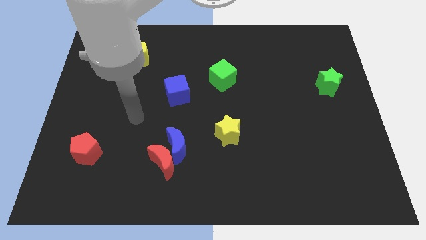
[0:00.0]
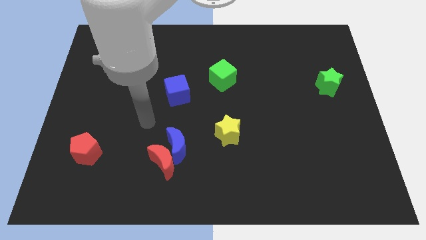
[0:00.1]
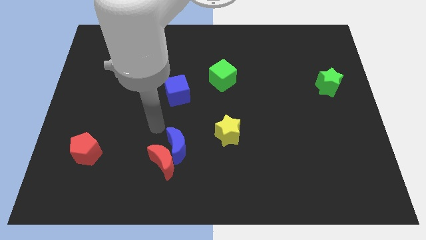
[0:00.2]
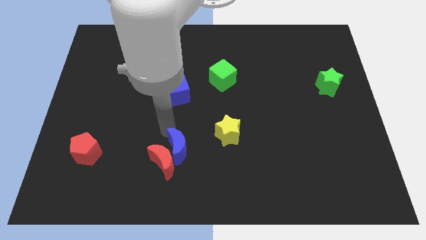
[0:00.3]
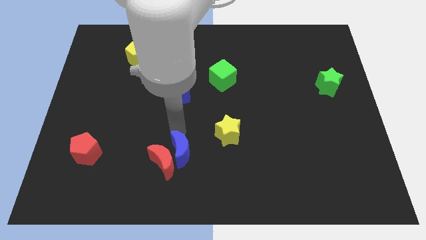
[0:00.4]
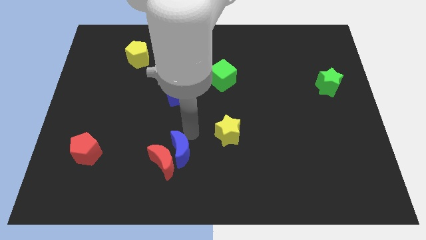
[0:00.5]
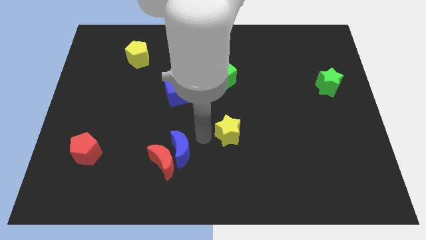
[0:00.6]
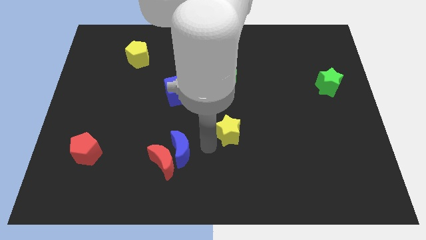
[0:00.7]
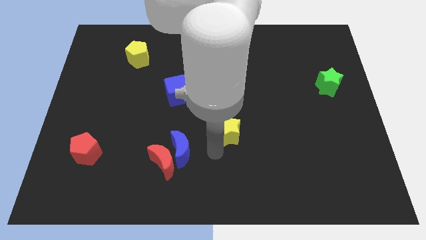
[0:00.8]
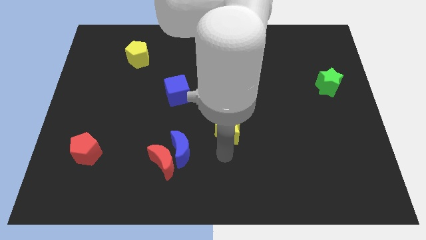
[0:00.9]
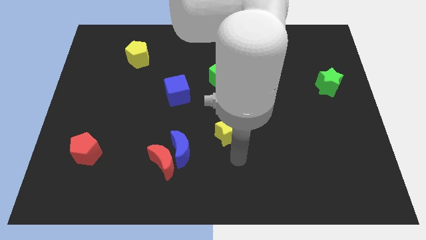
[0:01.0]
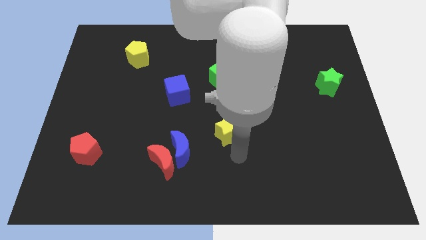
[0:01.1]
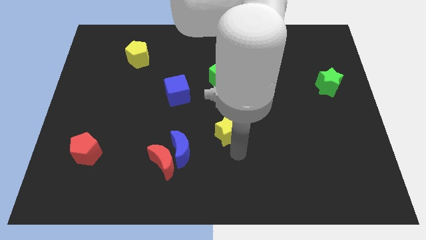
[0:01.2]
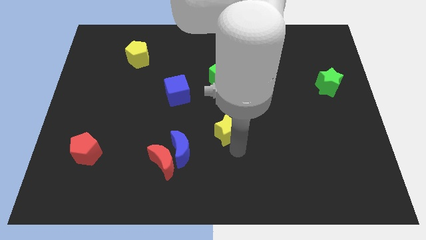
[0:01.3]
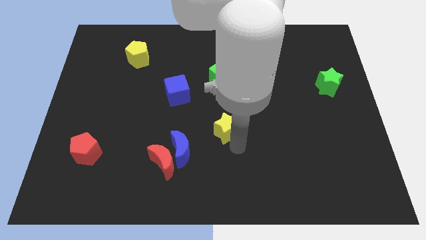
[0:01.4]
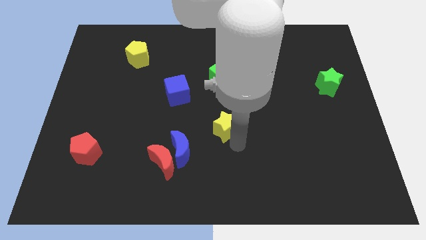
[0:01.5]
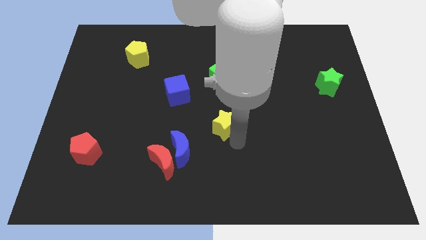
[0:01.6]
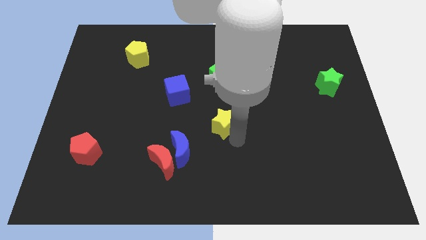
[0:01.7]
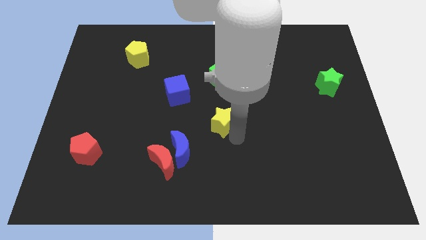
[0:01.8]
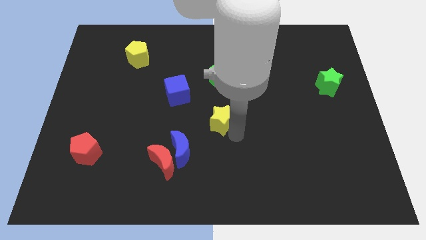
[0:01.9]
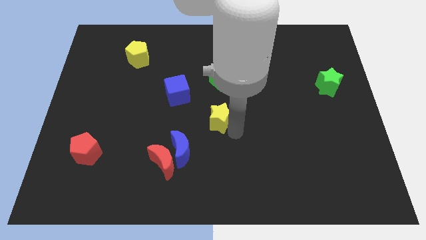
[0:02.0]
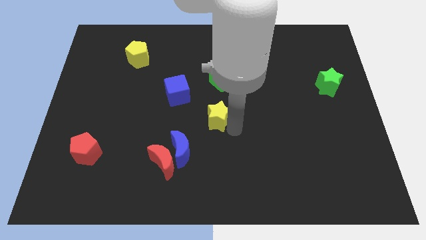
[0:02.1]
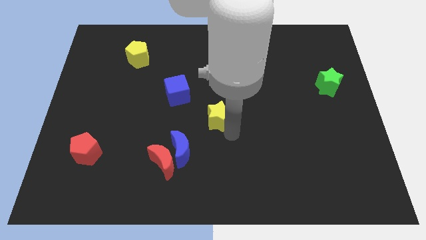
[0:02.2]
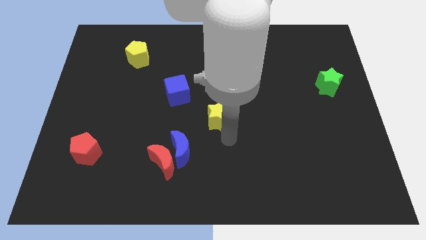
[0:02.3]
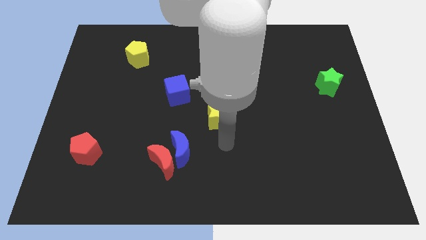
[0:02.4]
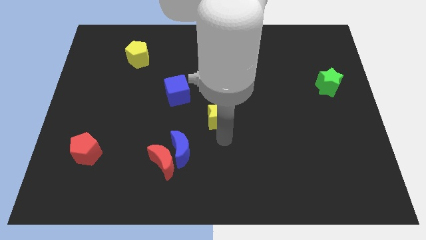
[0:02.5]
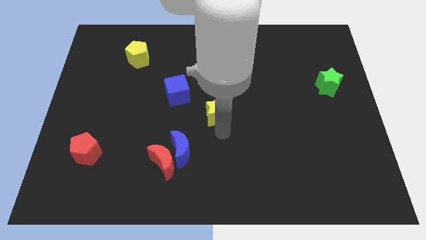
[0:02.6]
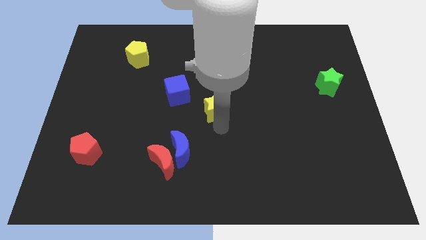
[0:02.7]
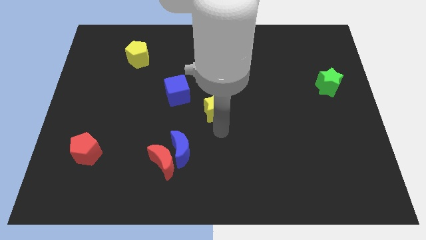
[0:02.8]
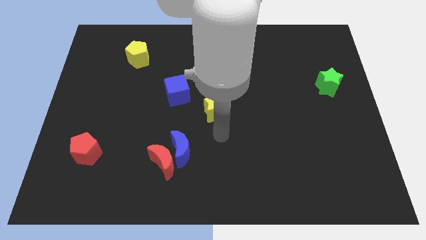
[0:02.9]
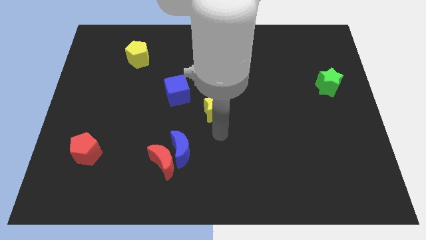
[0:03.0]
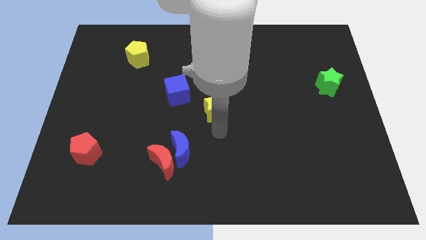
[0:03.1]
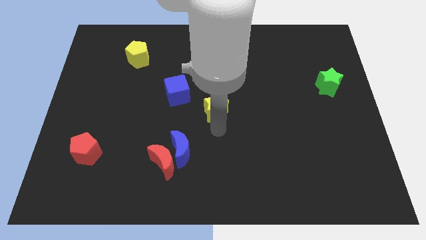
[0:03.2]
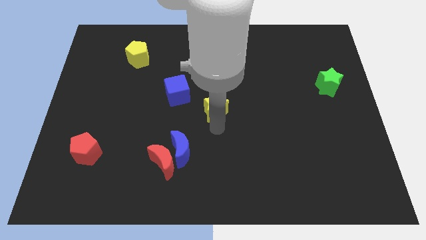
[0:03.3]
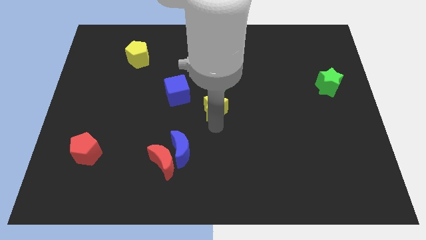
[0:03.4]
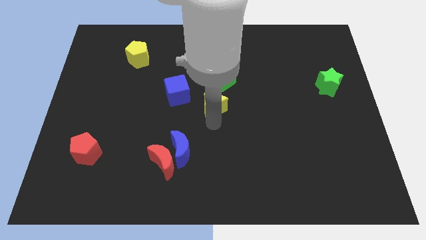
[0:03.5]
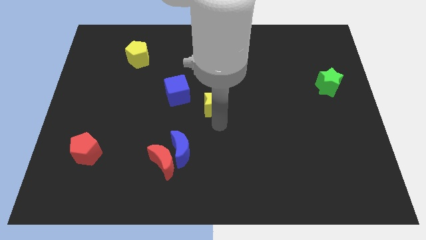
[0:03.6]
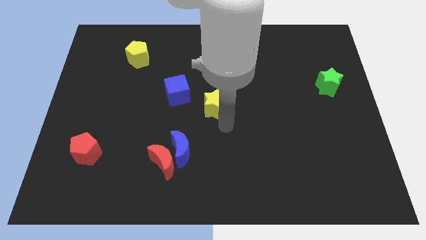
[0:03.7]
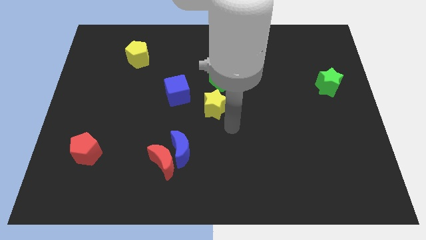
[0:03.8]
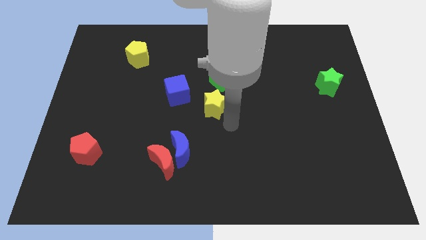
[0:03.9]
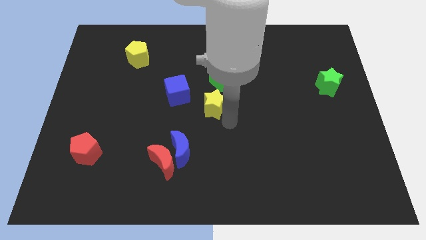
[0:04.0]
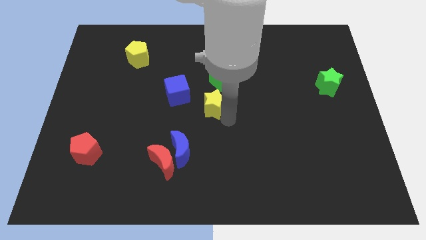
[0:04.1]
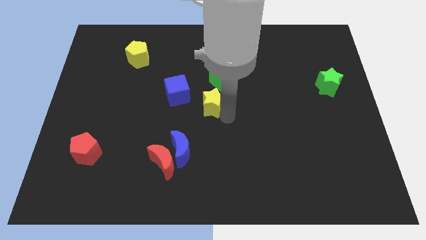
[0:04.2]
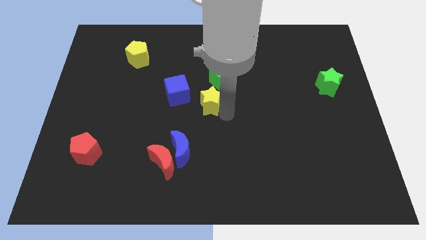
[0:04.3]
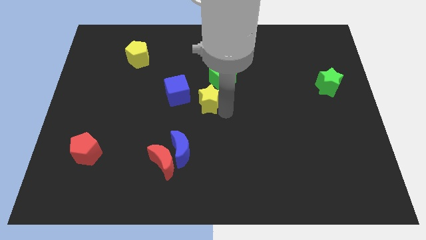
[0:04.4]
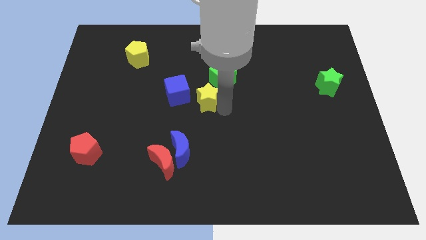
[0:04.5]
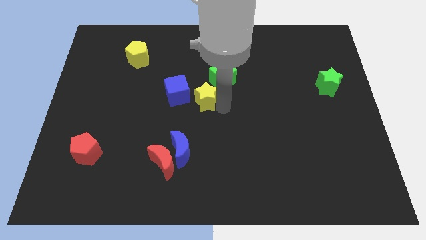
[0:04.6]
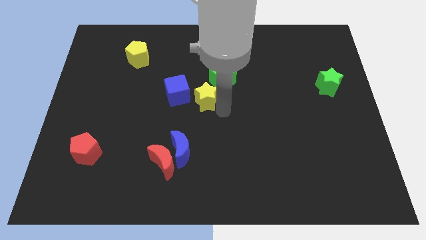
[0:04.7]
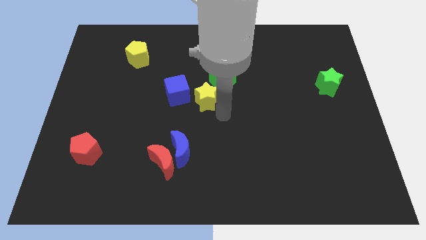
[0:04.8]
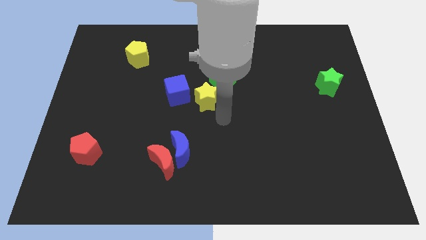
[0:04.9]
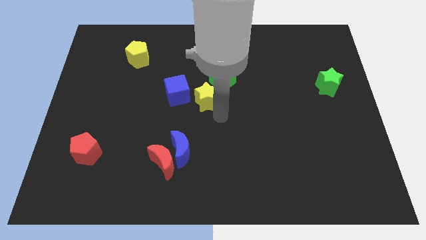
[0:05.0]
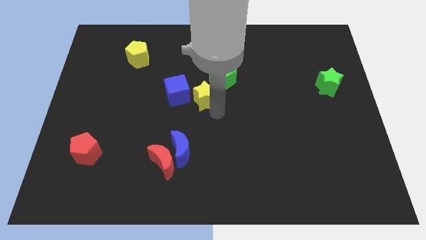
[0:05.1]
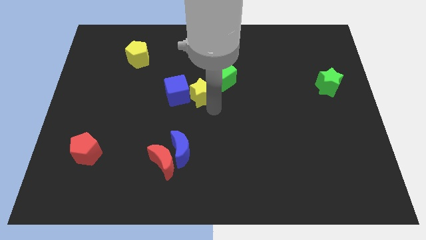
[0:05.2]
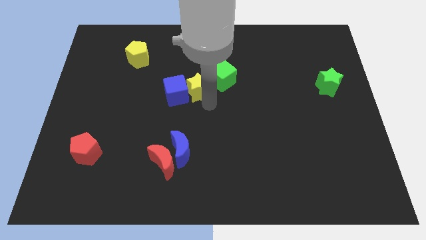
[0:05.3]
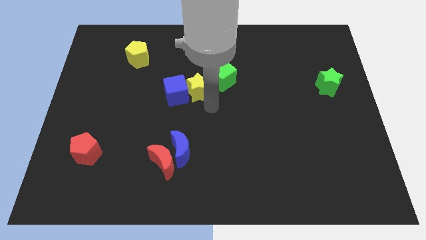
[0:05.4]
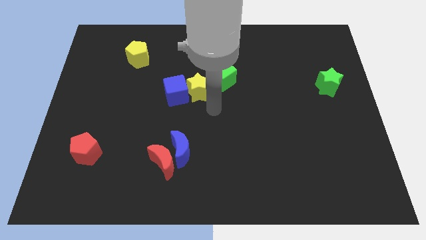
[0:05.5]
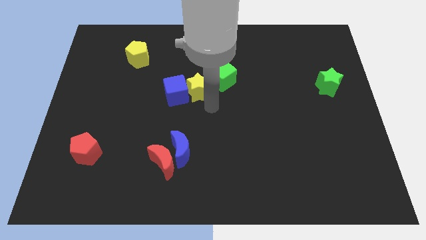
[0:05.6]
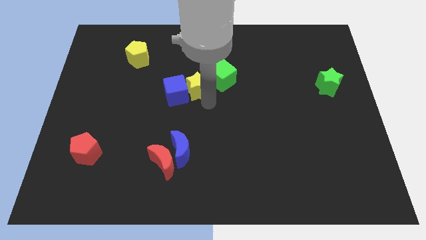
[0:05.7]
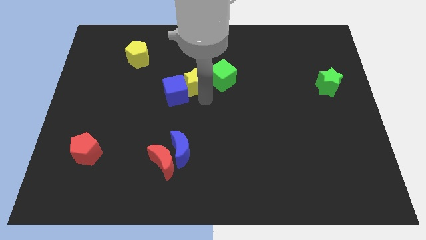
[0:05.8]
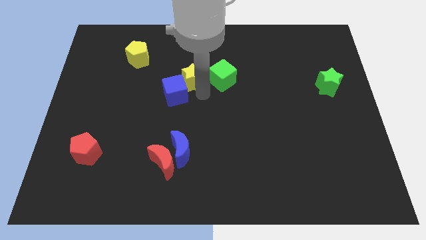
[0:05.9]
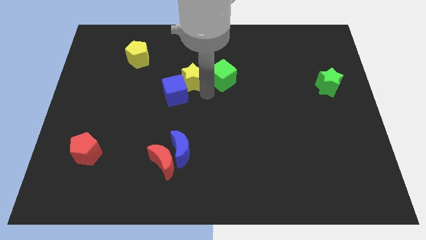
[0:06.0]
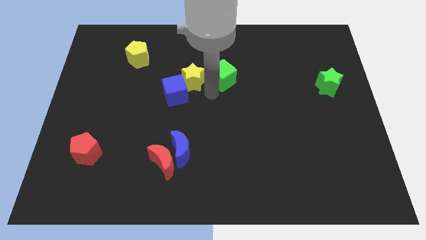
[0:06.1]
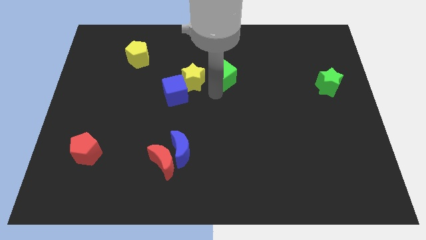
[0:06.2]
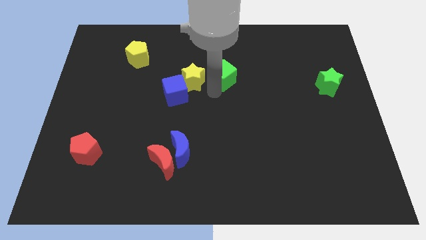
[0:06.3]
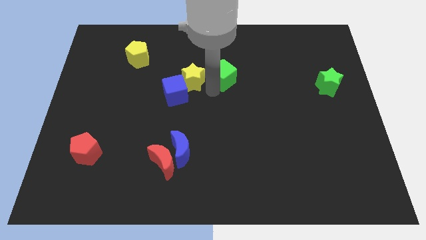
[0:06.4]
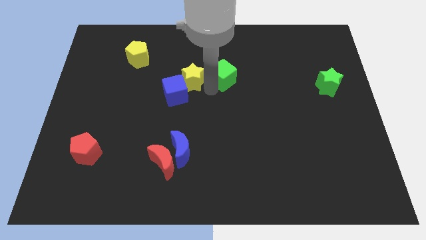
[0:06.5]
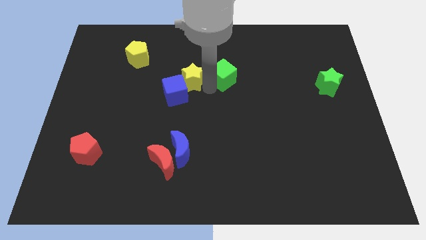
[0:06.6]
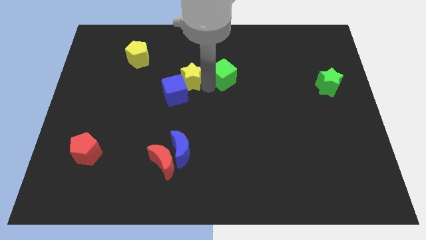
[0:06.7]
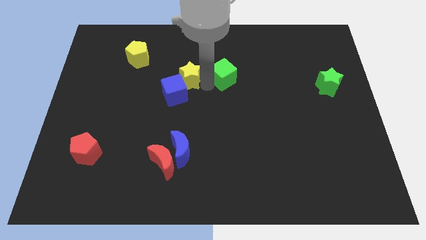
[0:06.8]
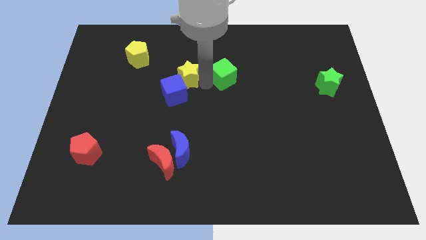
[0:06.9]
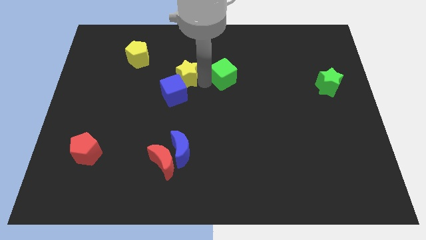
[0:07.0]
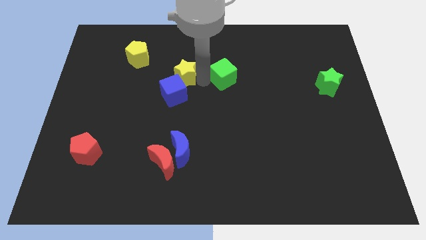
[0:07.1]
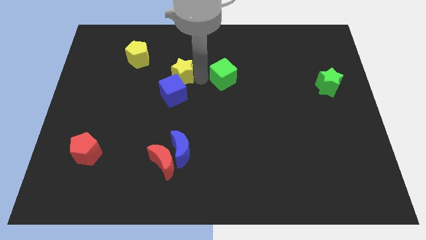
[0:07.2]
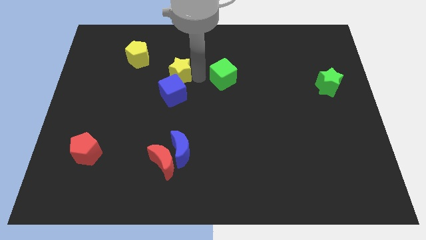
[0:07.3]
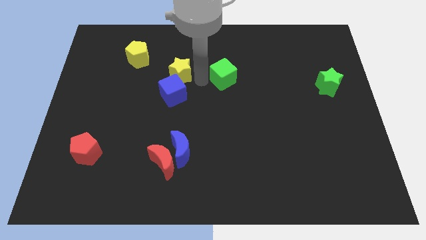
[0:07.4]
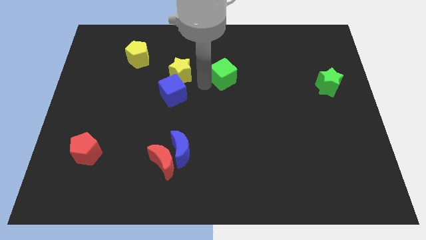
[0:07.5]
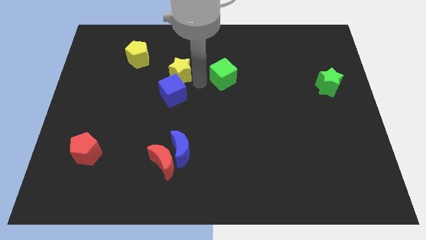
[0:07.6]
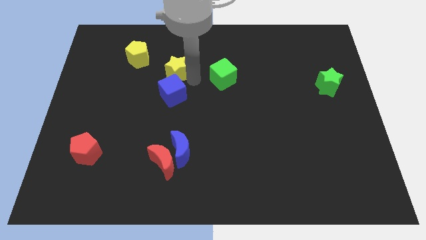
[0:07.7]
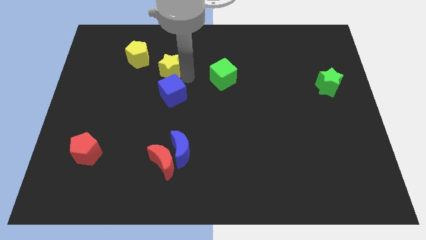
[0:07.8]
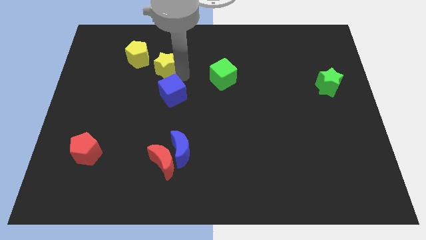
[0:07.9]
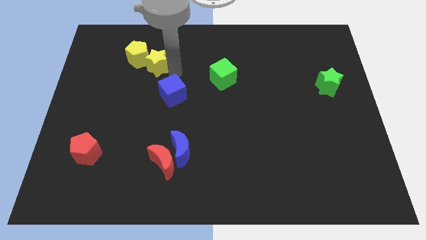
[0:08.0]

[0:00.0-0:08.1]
push the yellow star close to the yellow pentagon
